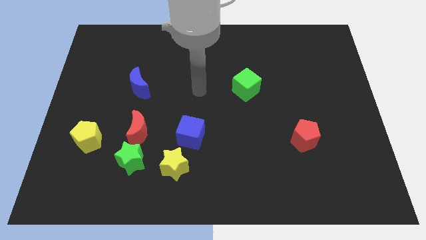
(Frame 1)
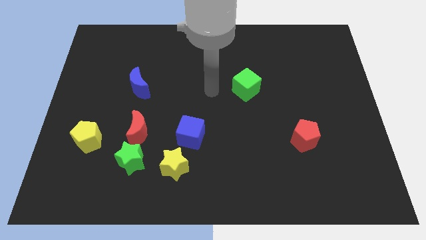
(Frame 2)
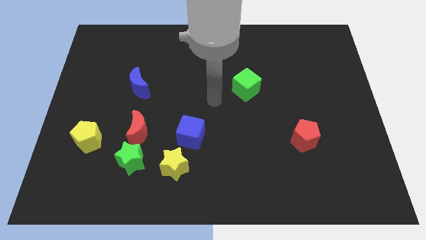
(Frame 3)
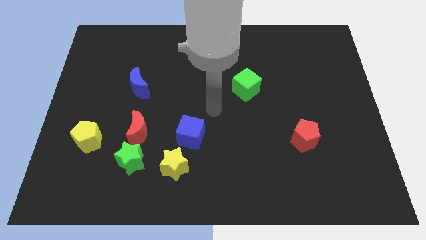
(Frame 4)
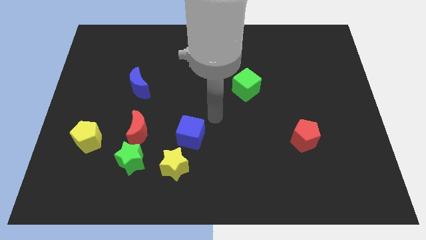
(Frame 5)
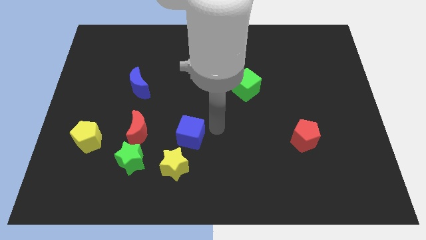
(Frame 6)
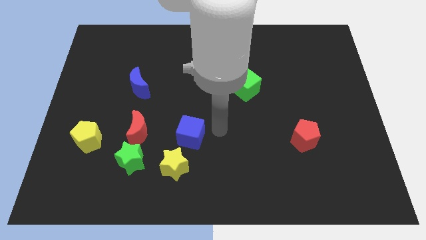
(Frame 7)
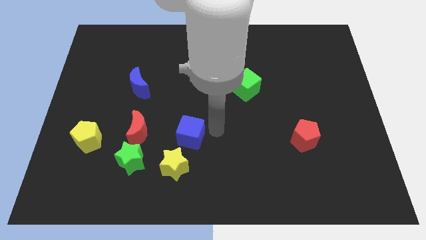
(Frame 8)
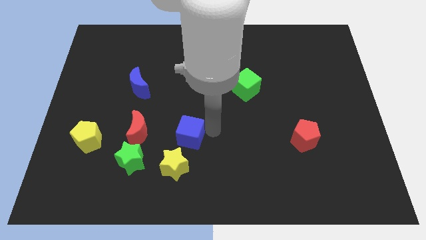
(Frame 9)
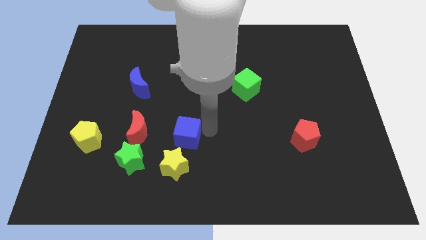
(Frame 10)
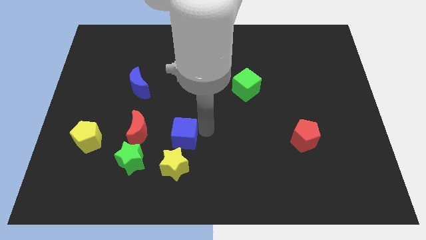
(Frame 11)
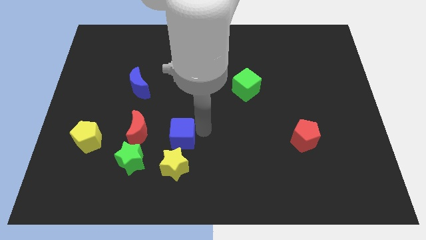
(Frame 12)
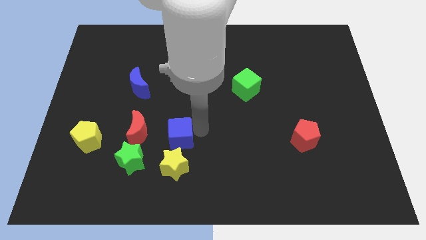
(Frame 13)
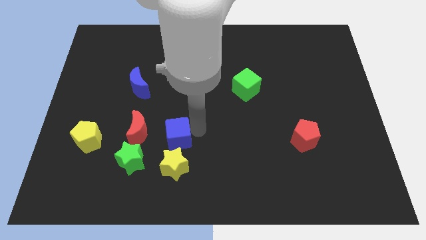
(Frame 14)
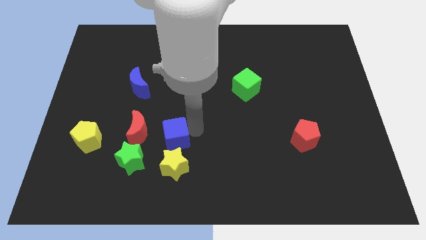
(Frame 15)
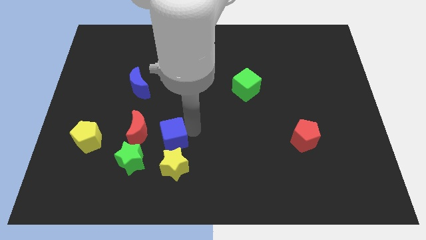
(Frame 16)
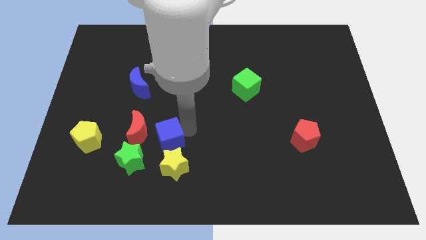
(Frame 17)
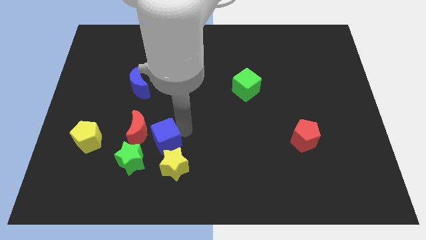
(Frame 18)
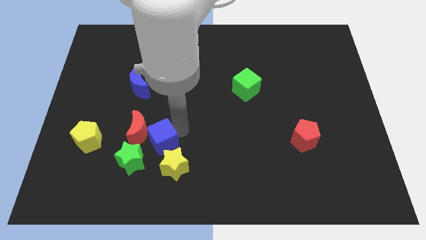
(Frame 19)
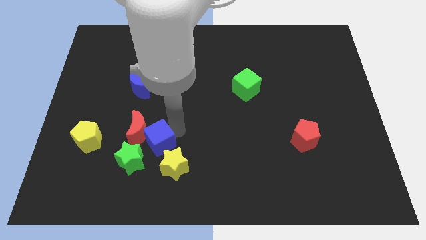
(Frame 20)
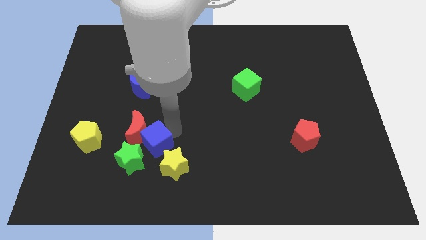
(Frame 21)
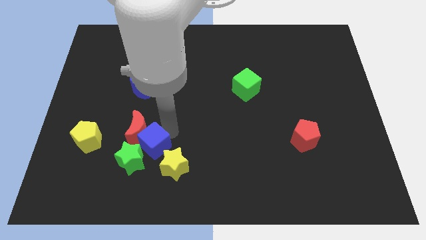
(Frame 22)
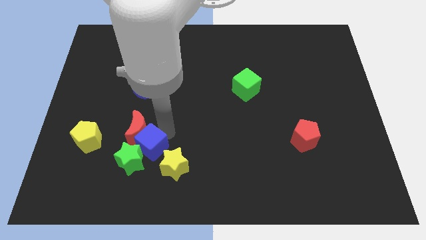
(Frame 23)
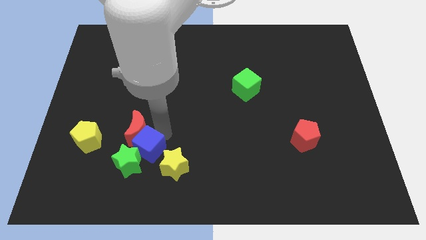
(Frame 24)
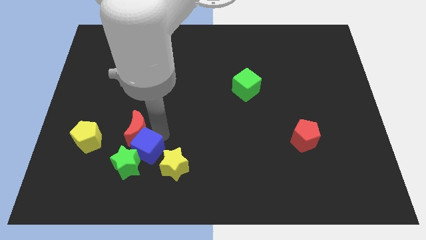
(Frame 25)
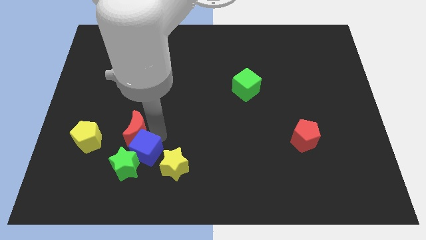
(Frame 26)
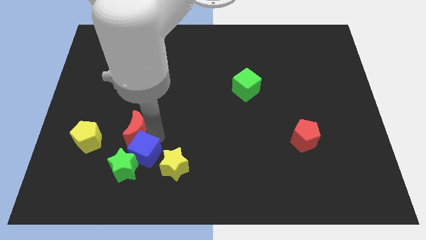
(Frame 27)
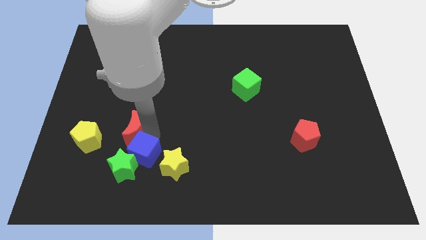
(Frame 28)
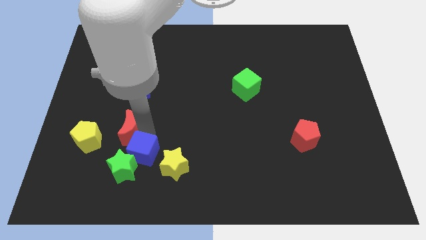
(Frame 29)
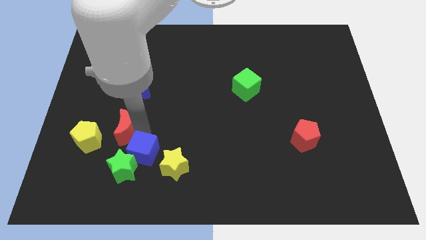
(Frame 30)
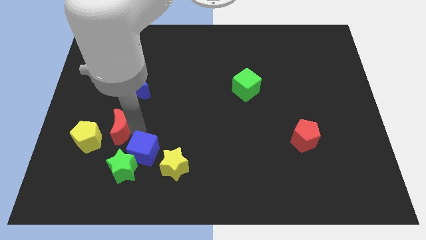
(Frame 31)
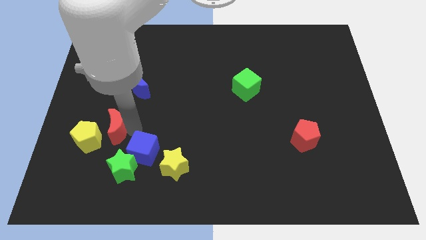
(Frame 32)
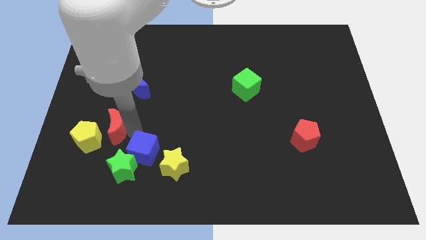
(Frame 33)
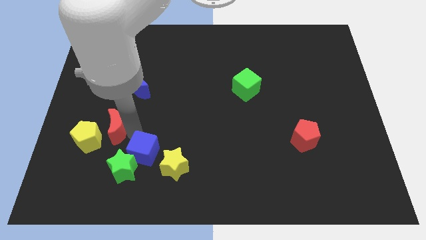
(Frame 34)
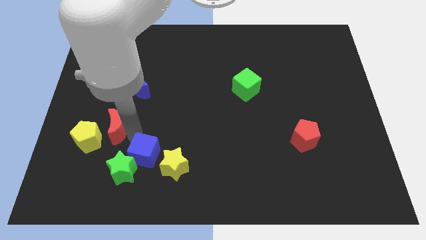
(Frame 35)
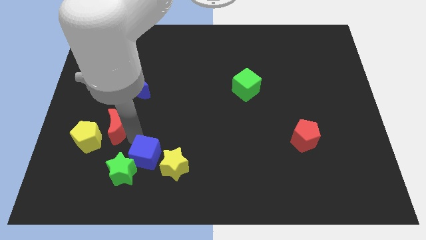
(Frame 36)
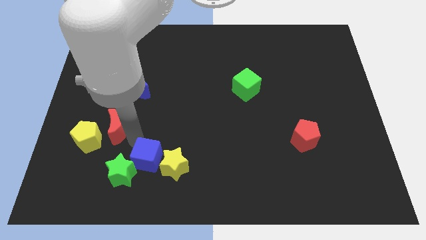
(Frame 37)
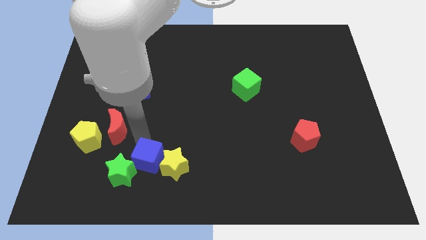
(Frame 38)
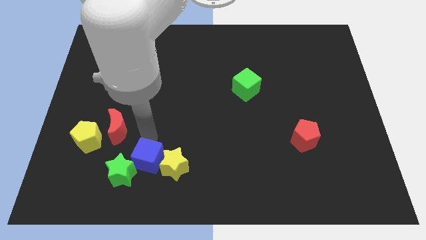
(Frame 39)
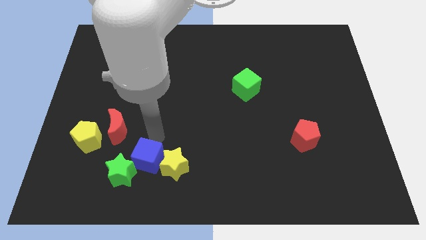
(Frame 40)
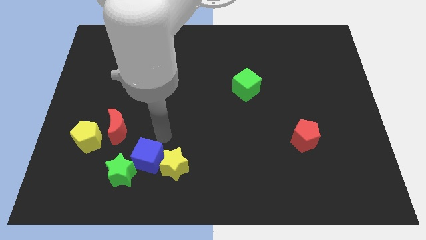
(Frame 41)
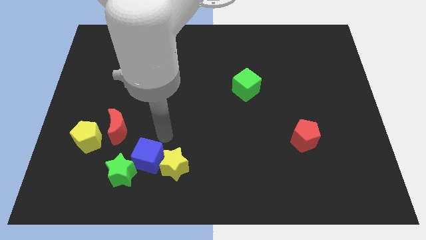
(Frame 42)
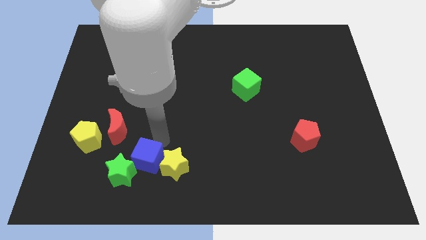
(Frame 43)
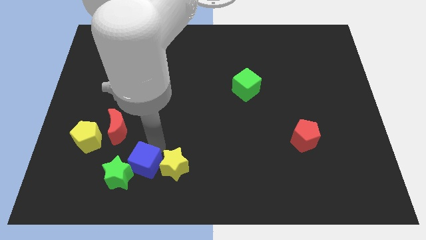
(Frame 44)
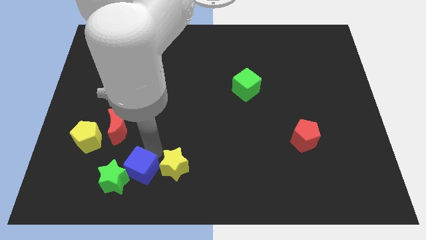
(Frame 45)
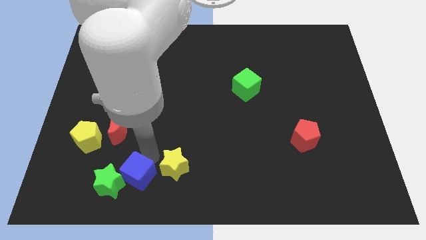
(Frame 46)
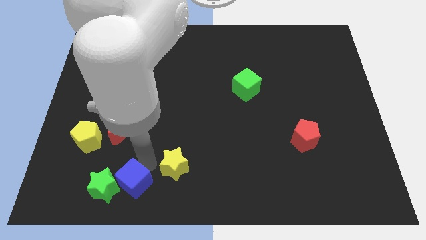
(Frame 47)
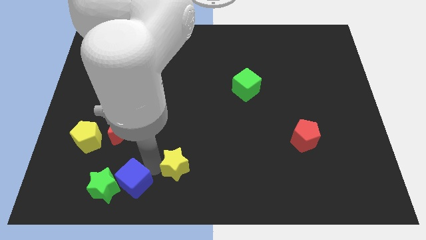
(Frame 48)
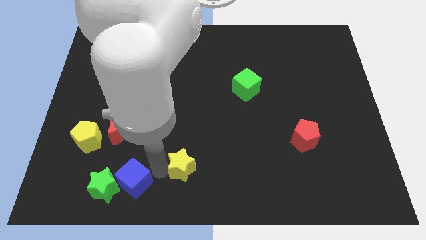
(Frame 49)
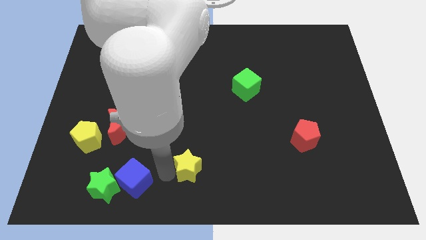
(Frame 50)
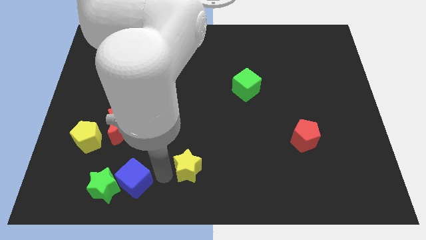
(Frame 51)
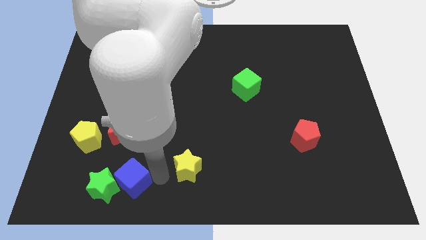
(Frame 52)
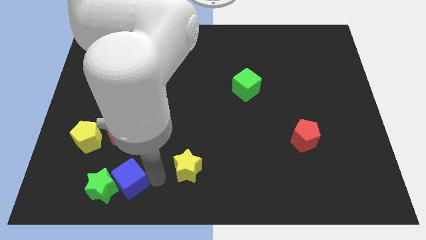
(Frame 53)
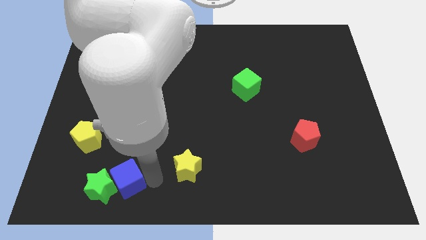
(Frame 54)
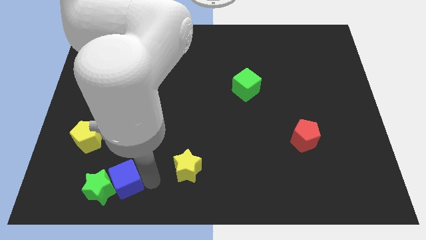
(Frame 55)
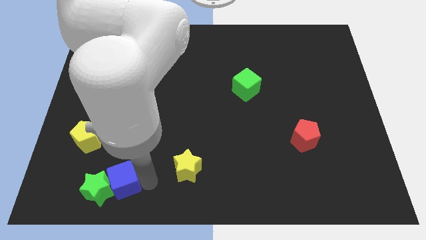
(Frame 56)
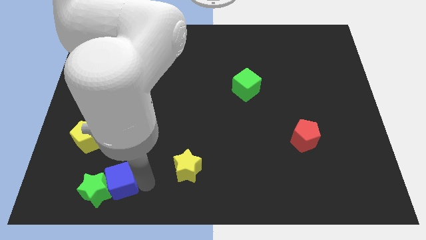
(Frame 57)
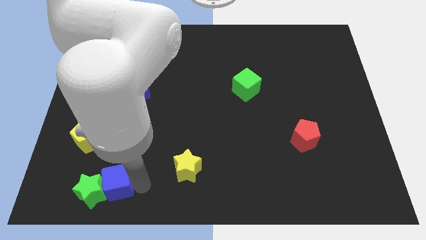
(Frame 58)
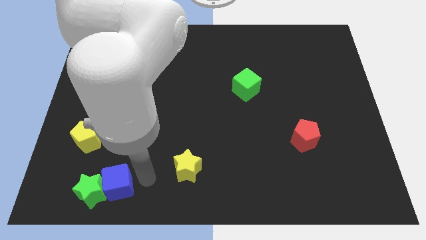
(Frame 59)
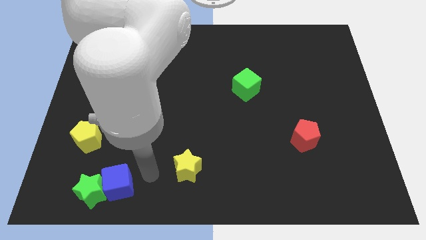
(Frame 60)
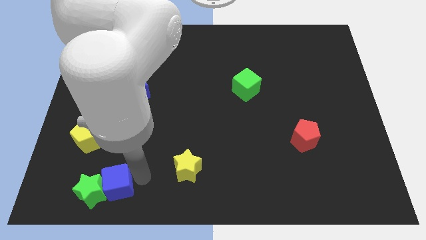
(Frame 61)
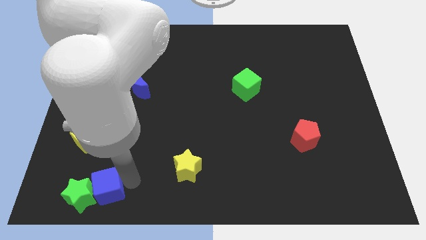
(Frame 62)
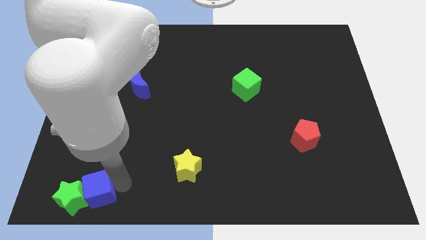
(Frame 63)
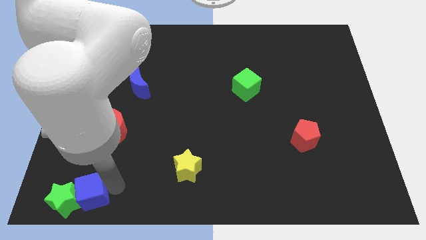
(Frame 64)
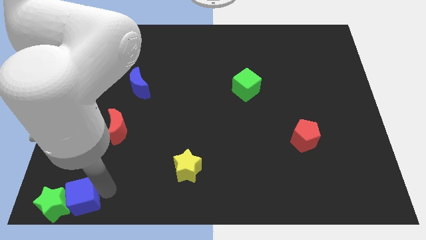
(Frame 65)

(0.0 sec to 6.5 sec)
slide the blue cube to the bottom left of the board
